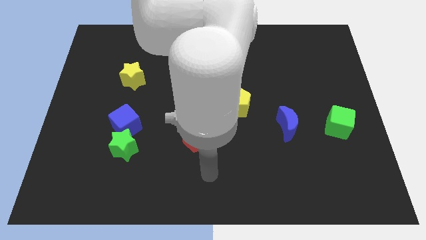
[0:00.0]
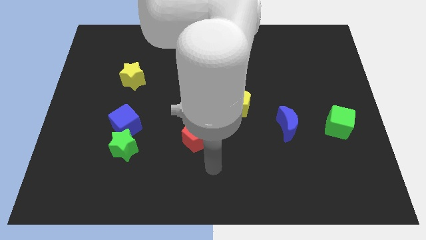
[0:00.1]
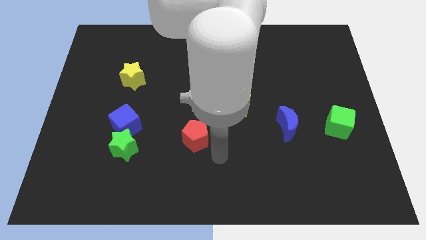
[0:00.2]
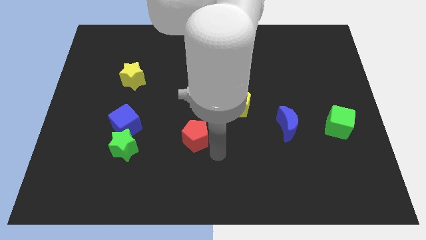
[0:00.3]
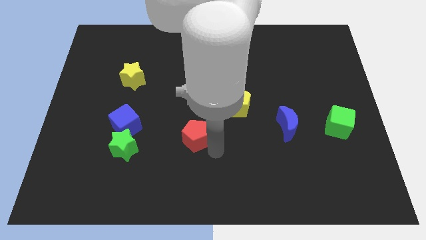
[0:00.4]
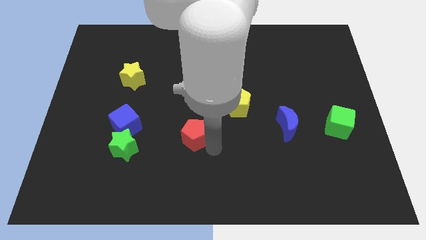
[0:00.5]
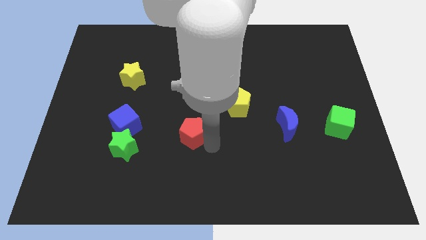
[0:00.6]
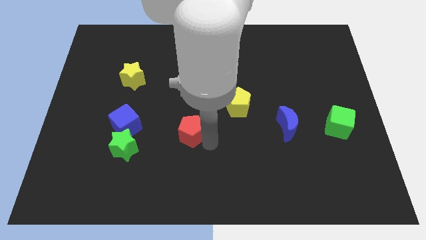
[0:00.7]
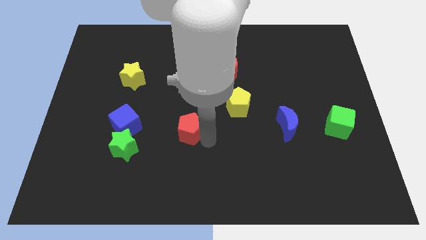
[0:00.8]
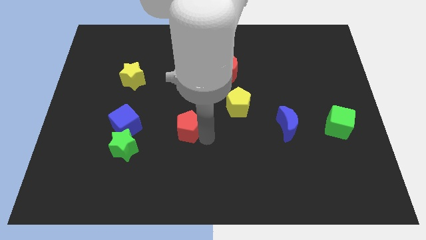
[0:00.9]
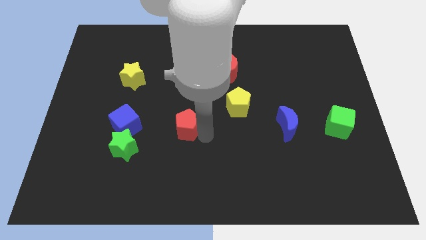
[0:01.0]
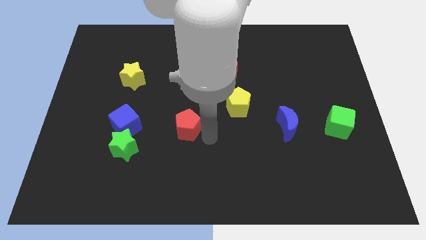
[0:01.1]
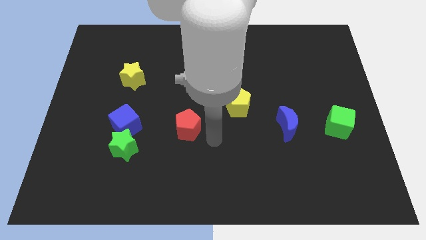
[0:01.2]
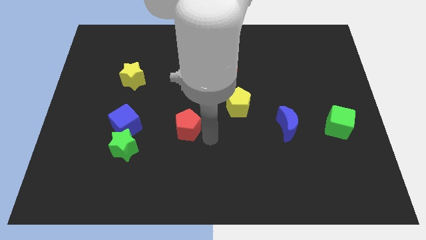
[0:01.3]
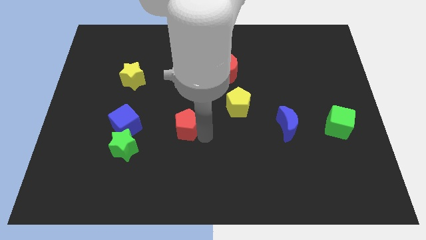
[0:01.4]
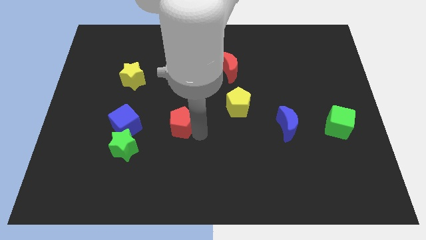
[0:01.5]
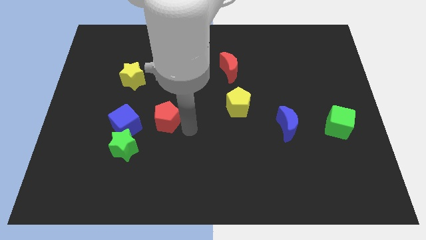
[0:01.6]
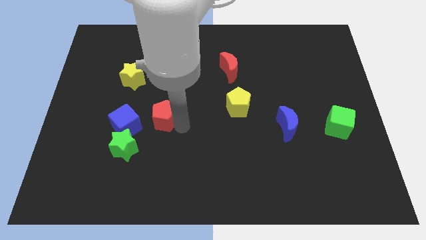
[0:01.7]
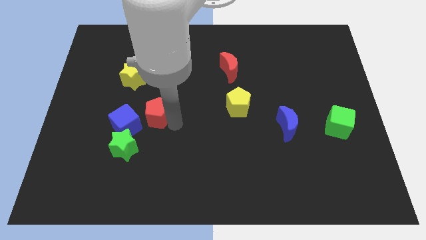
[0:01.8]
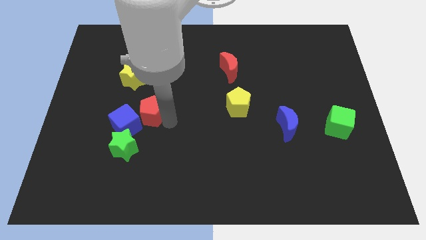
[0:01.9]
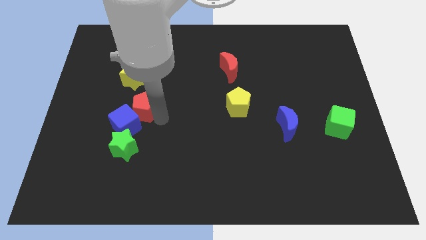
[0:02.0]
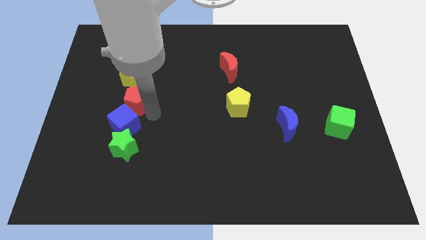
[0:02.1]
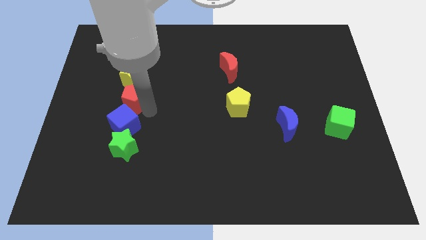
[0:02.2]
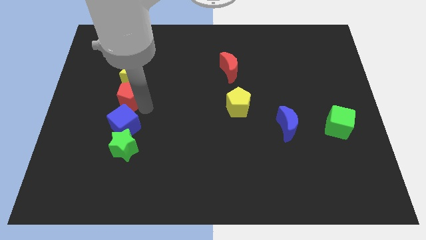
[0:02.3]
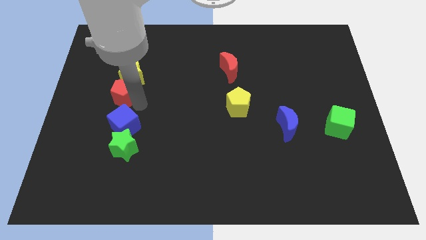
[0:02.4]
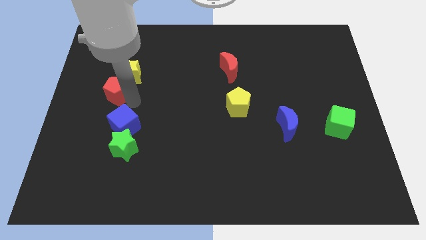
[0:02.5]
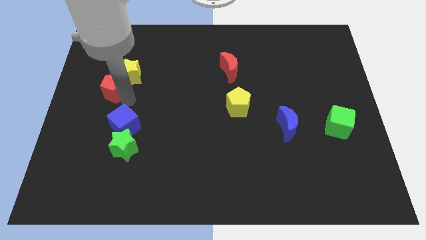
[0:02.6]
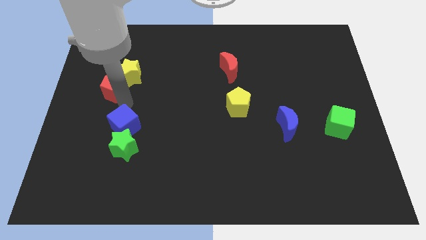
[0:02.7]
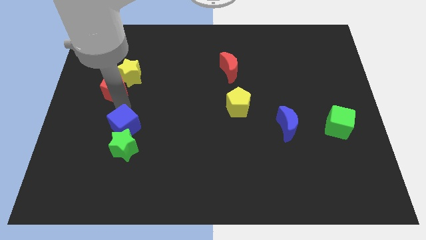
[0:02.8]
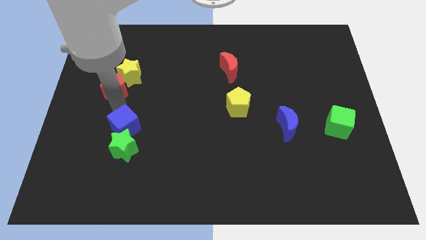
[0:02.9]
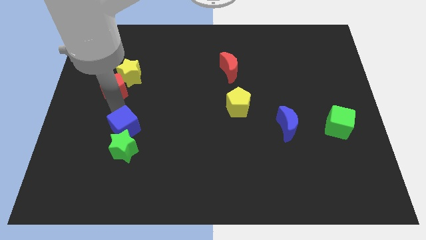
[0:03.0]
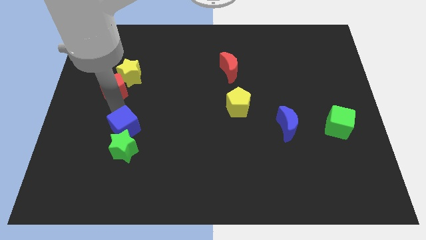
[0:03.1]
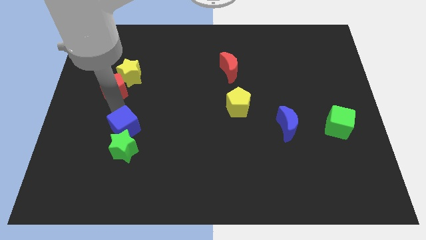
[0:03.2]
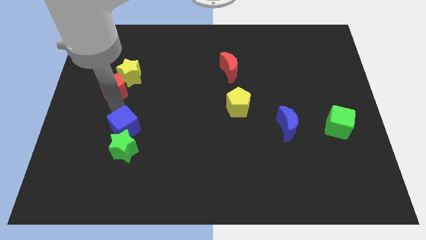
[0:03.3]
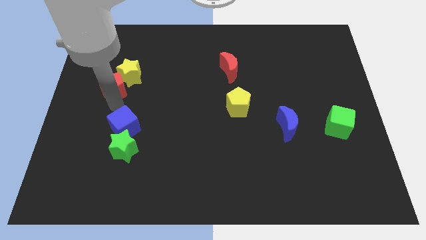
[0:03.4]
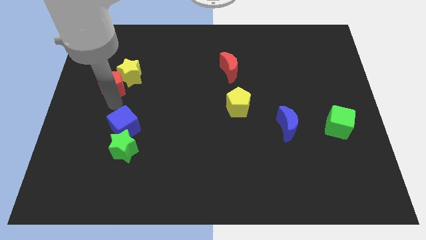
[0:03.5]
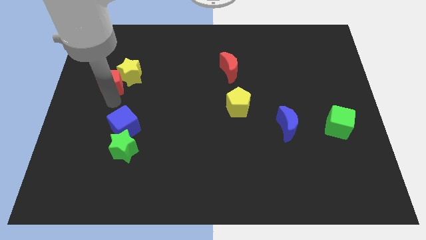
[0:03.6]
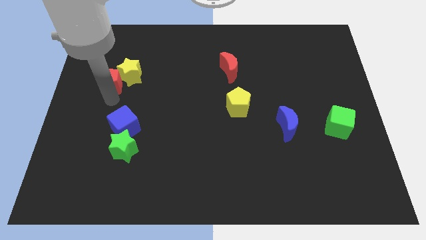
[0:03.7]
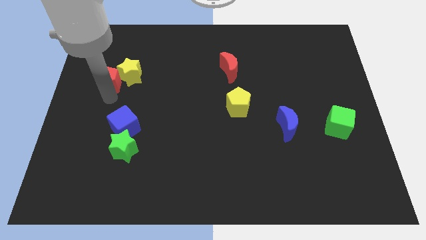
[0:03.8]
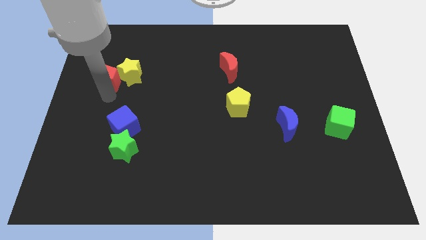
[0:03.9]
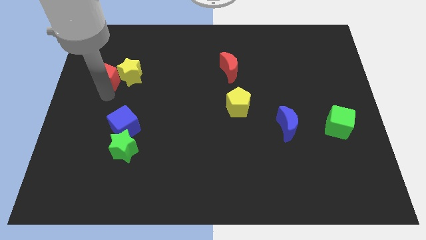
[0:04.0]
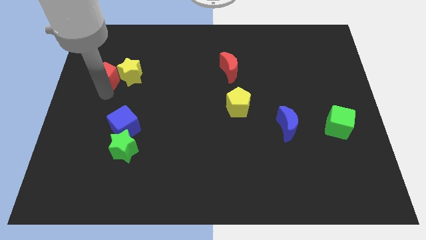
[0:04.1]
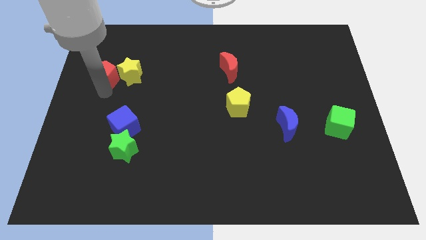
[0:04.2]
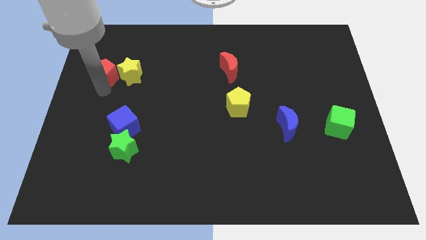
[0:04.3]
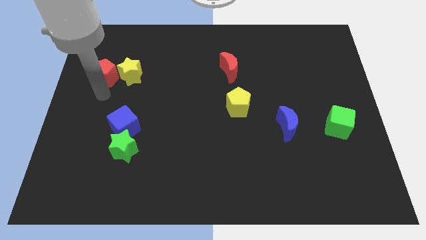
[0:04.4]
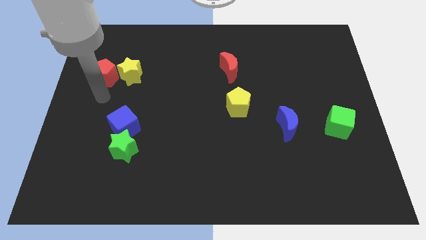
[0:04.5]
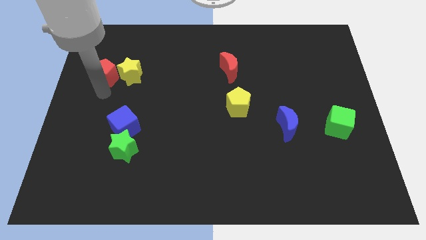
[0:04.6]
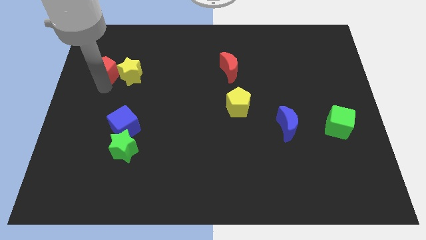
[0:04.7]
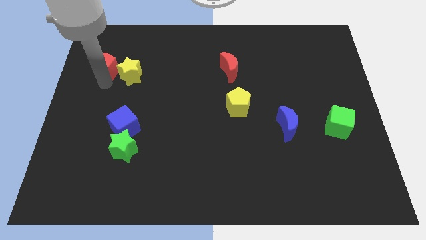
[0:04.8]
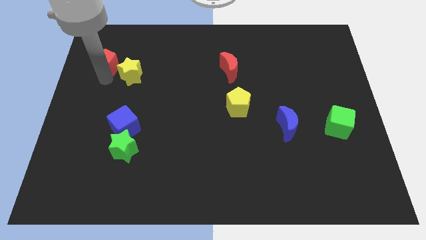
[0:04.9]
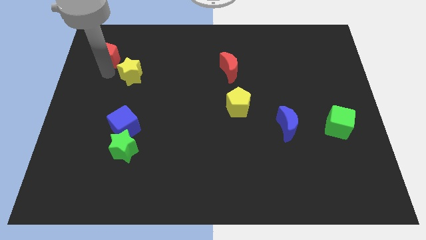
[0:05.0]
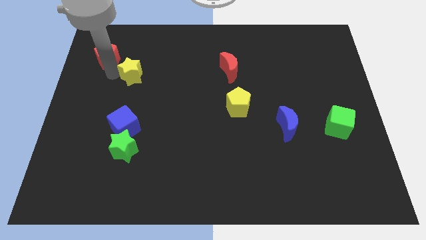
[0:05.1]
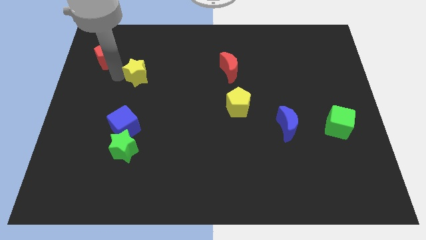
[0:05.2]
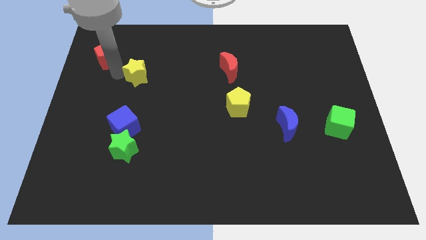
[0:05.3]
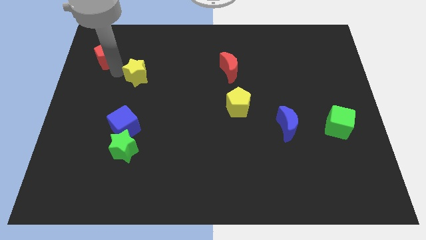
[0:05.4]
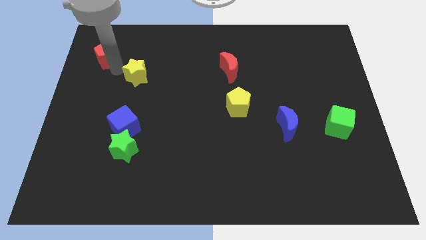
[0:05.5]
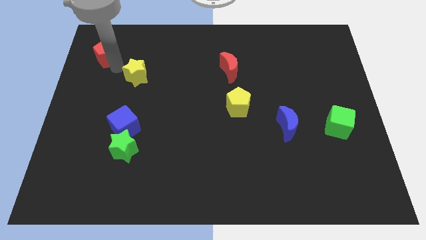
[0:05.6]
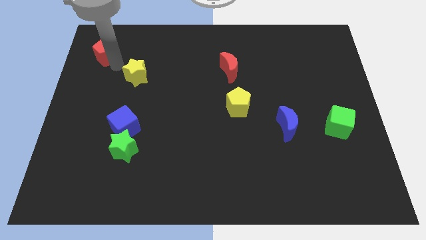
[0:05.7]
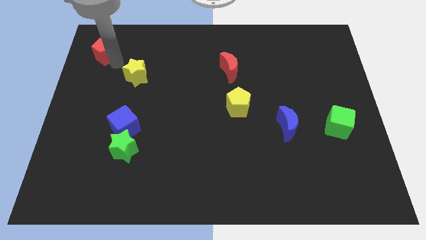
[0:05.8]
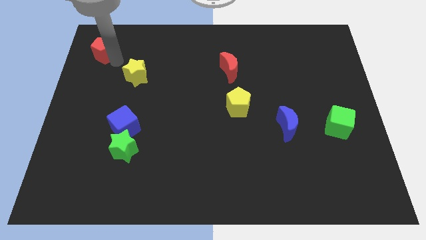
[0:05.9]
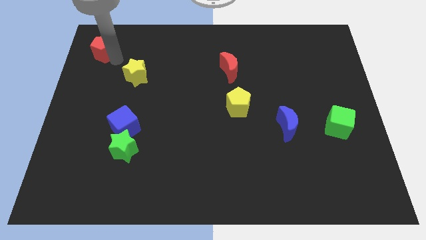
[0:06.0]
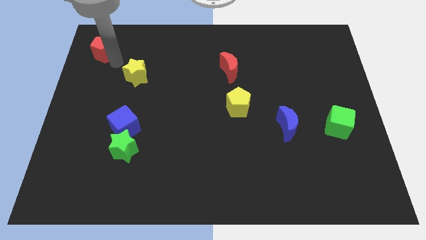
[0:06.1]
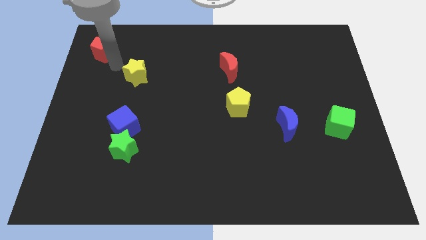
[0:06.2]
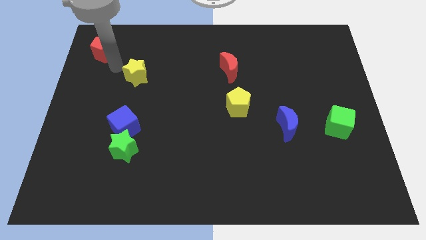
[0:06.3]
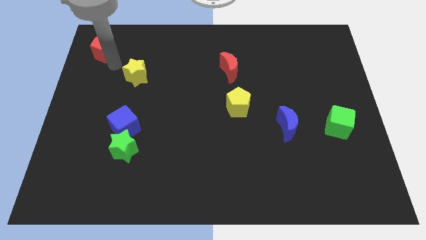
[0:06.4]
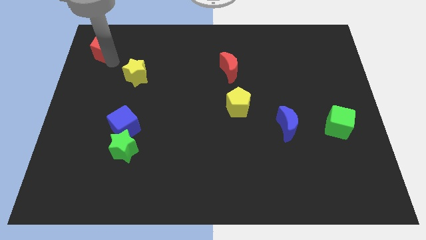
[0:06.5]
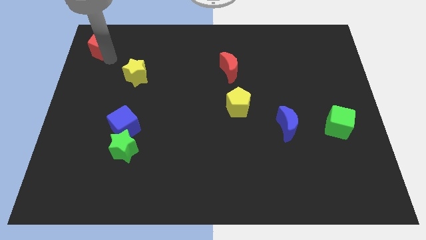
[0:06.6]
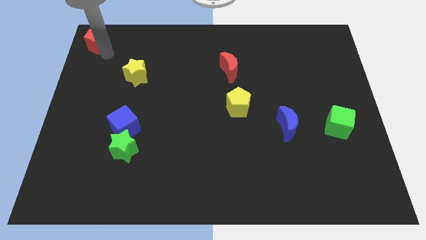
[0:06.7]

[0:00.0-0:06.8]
put the red pentagon to the top left
